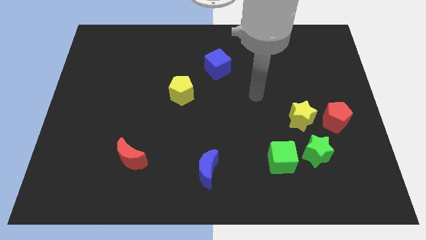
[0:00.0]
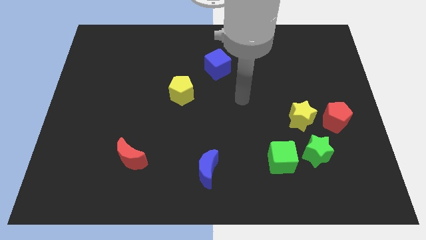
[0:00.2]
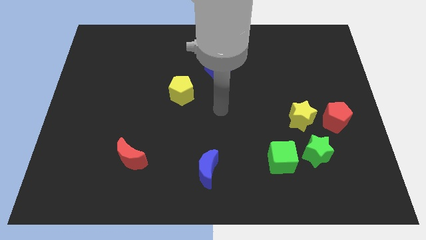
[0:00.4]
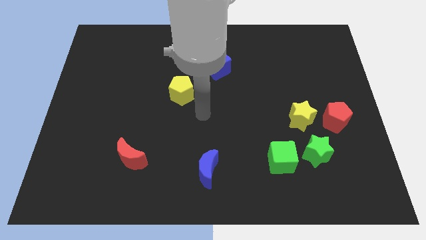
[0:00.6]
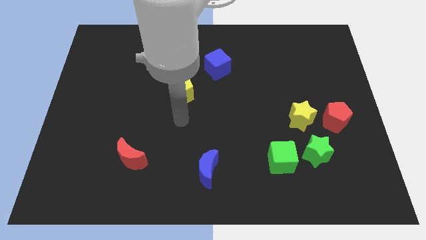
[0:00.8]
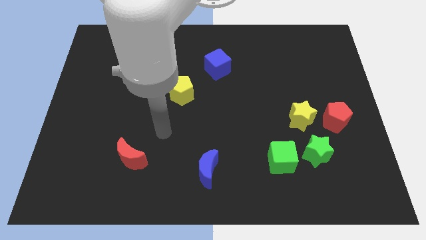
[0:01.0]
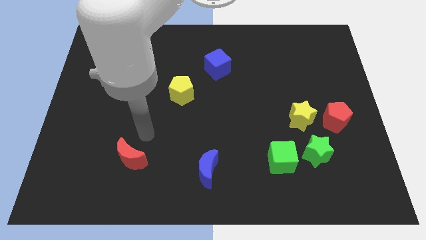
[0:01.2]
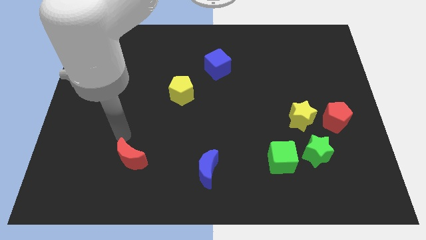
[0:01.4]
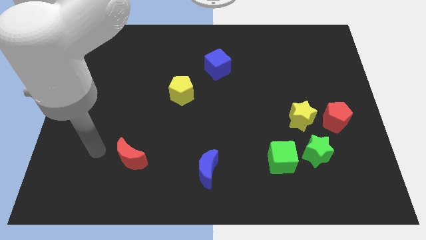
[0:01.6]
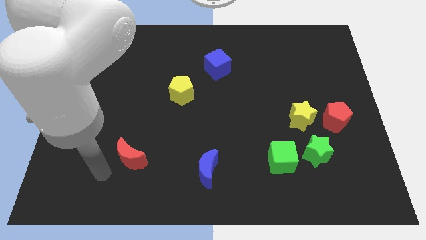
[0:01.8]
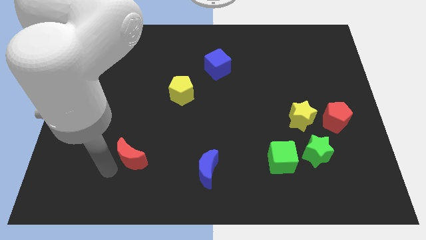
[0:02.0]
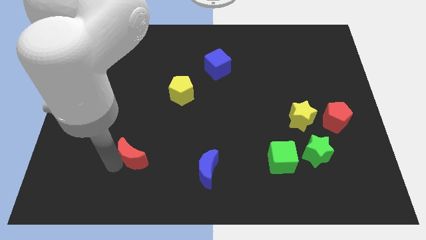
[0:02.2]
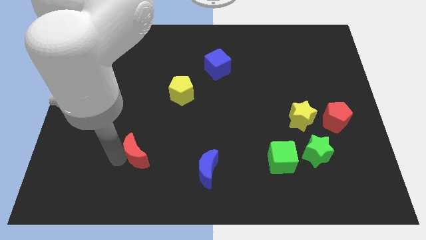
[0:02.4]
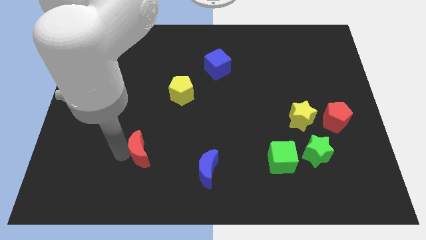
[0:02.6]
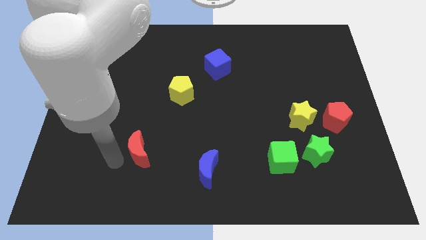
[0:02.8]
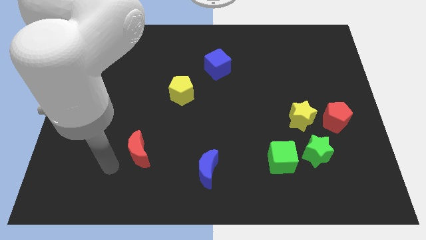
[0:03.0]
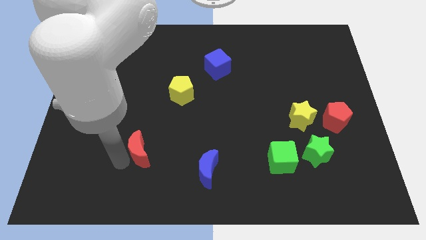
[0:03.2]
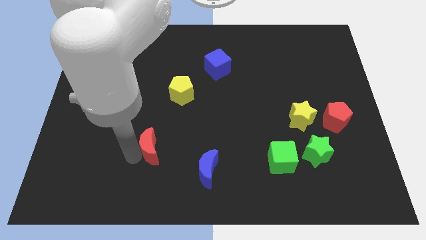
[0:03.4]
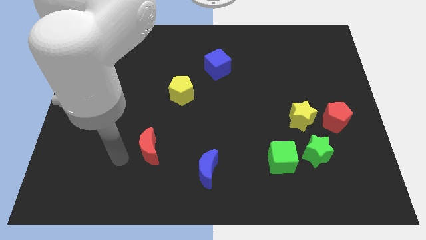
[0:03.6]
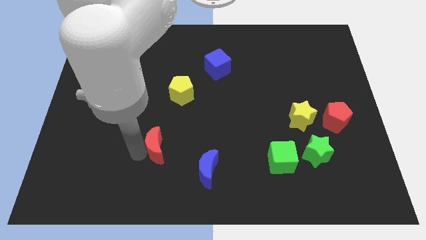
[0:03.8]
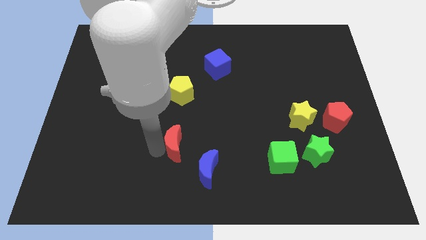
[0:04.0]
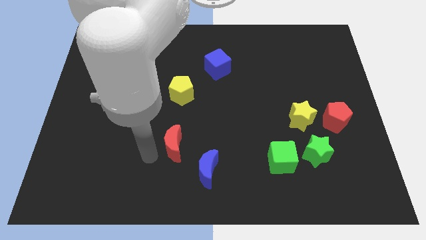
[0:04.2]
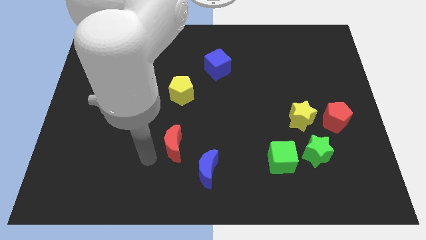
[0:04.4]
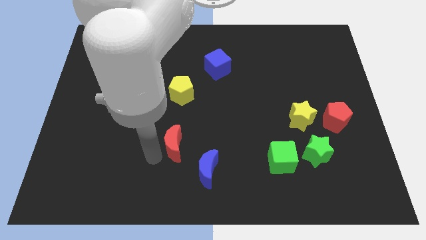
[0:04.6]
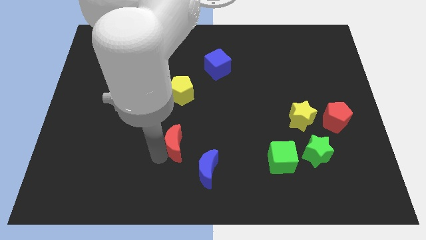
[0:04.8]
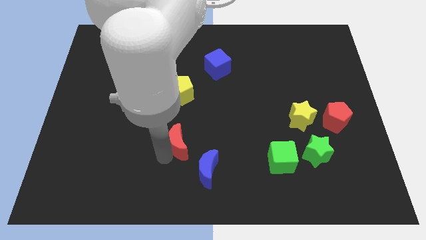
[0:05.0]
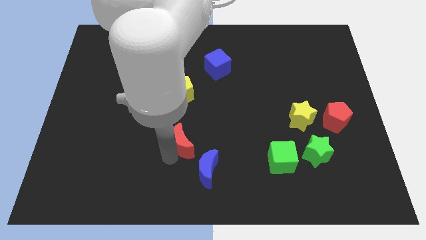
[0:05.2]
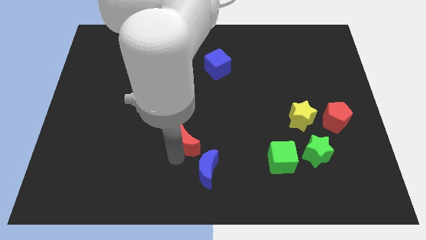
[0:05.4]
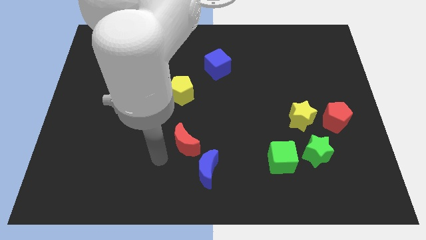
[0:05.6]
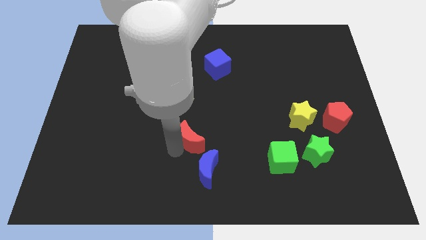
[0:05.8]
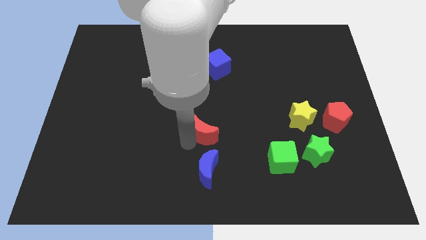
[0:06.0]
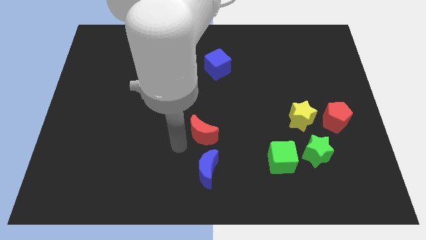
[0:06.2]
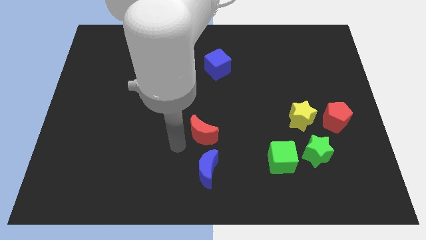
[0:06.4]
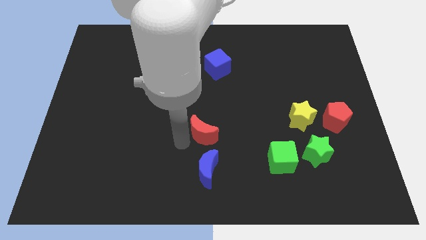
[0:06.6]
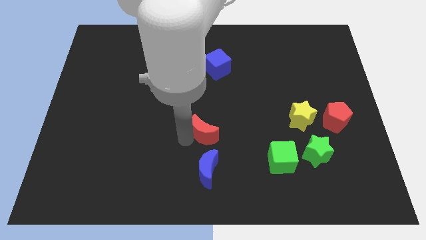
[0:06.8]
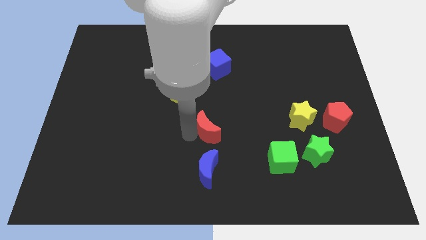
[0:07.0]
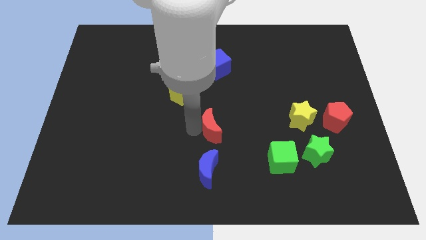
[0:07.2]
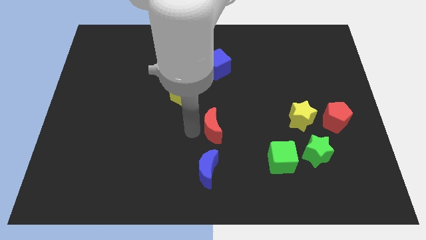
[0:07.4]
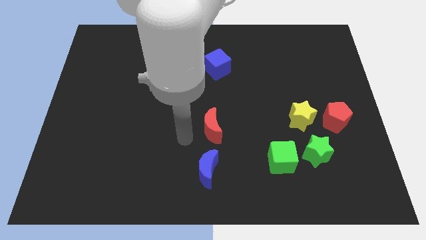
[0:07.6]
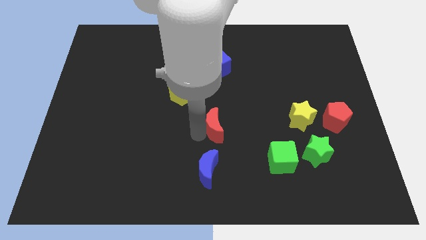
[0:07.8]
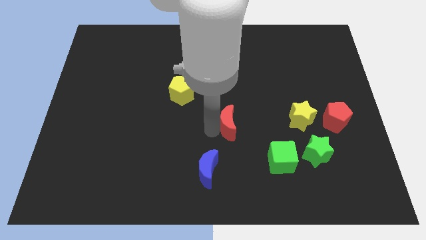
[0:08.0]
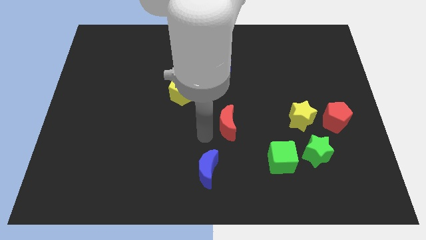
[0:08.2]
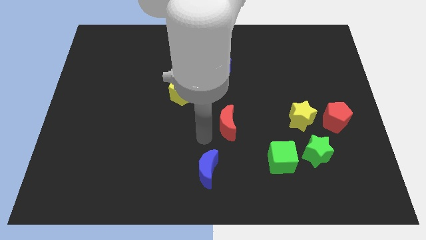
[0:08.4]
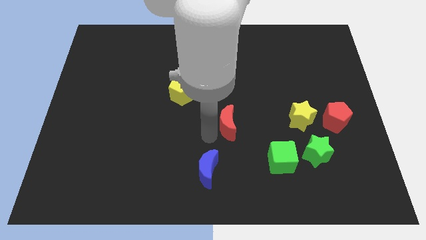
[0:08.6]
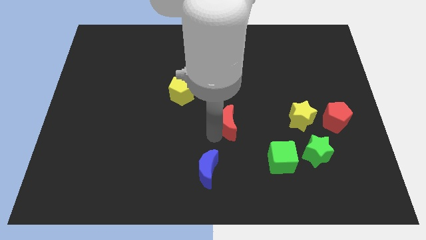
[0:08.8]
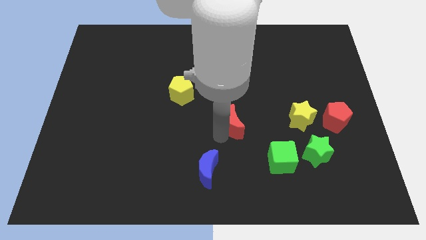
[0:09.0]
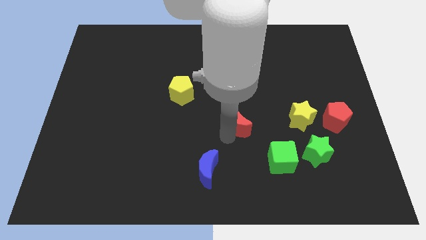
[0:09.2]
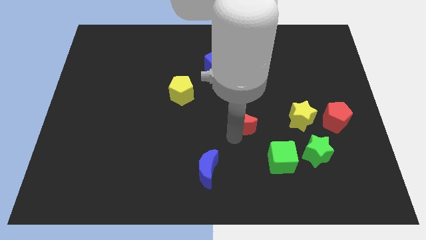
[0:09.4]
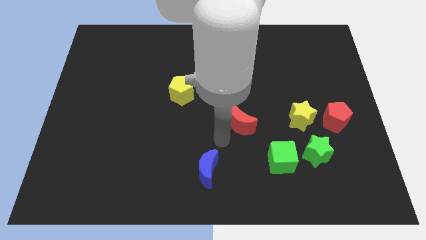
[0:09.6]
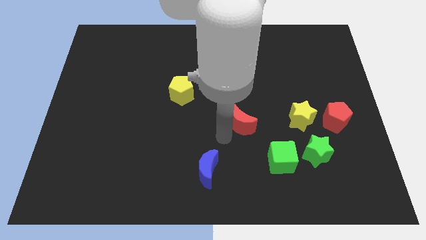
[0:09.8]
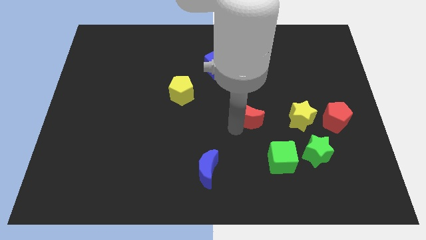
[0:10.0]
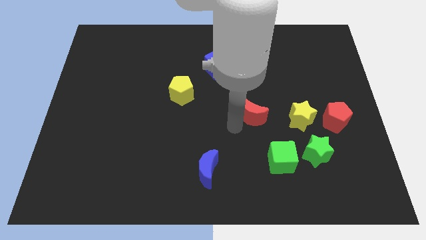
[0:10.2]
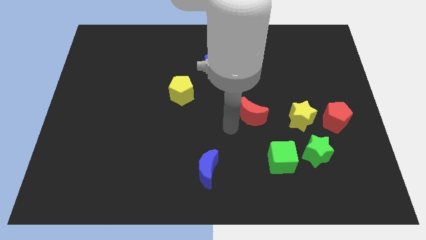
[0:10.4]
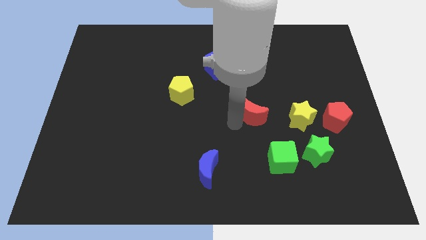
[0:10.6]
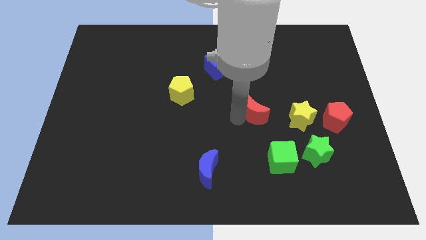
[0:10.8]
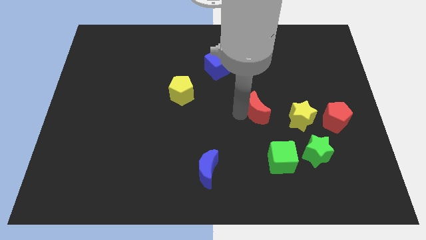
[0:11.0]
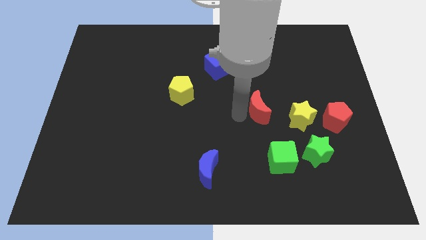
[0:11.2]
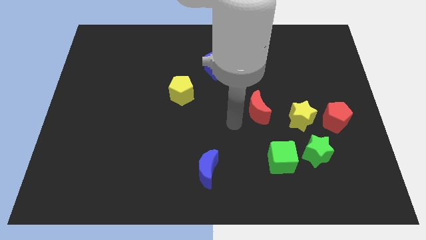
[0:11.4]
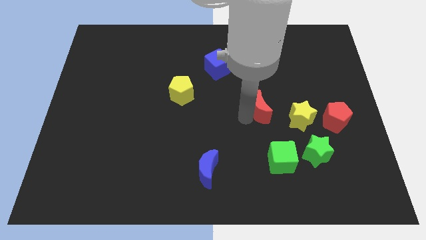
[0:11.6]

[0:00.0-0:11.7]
push the red moon to the top left of the yellow star

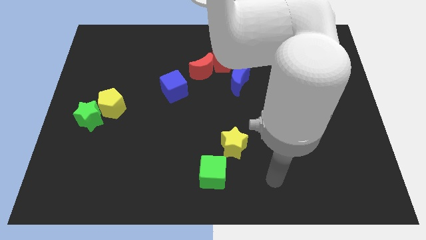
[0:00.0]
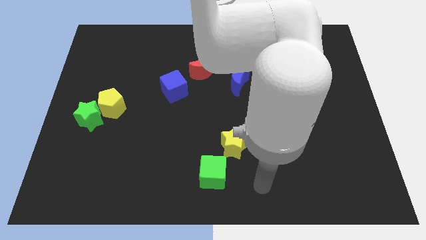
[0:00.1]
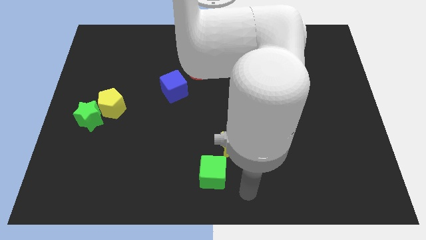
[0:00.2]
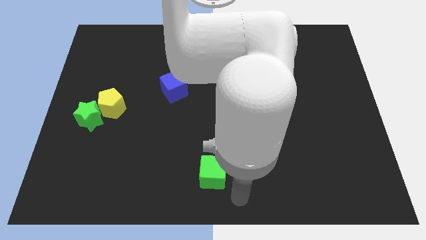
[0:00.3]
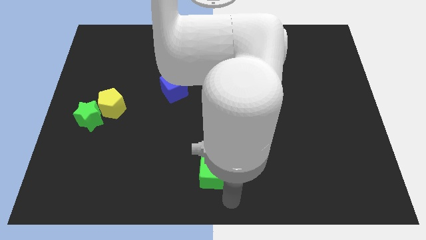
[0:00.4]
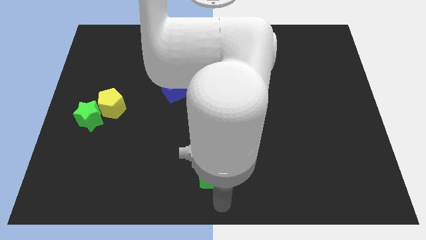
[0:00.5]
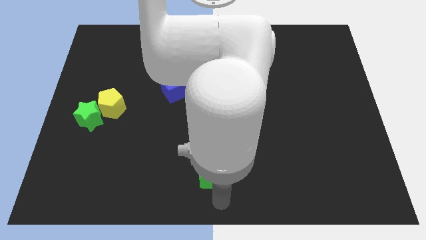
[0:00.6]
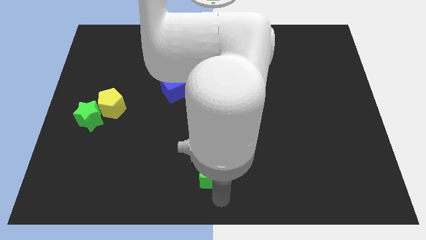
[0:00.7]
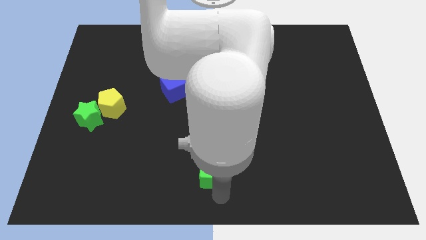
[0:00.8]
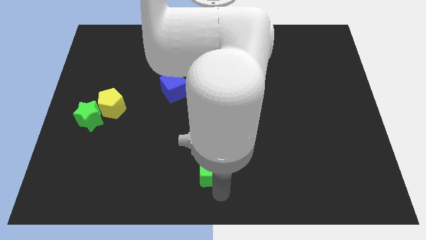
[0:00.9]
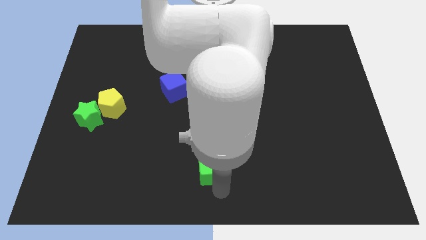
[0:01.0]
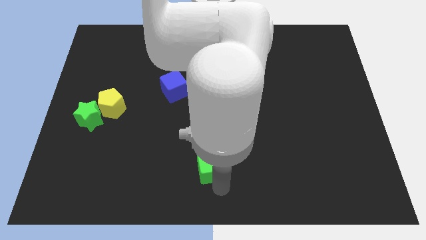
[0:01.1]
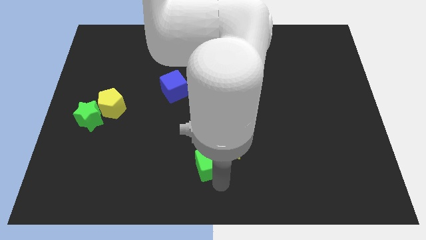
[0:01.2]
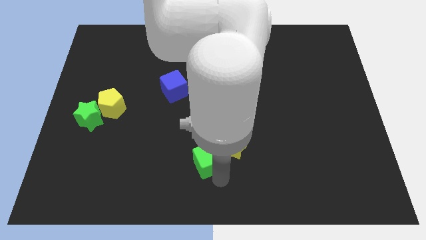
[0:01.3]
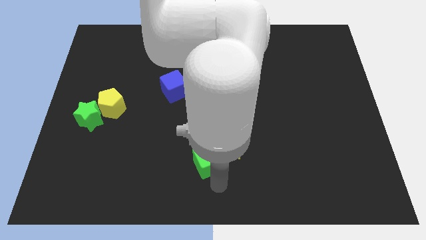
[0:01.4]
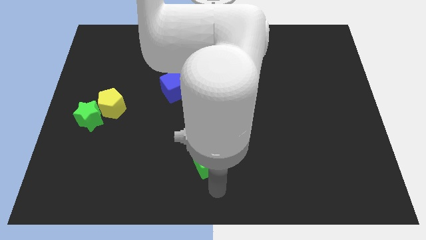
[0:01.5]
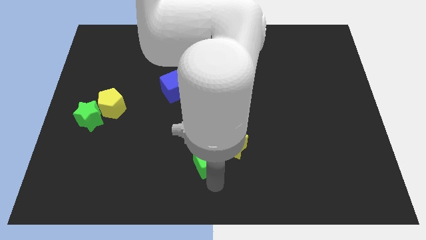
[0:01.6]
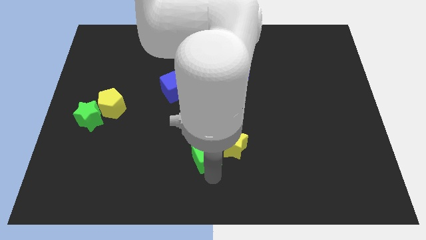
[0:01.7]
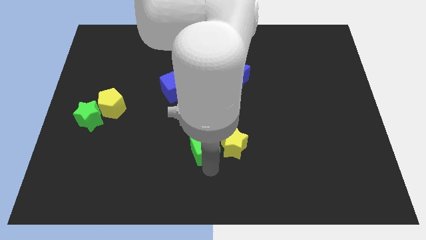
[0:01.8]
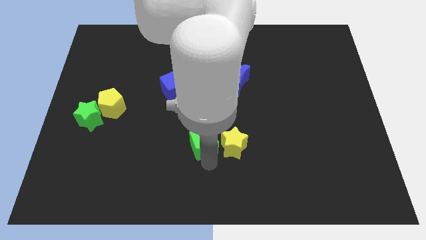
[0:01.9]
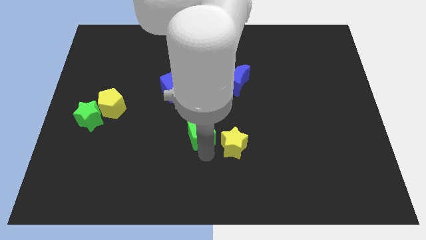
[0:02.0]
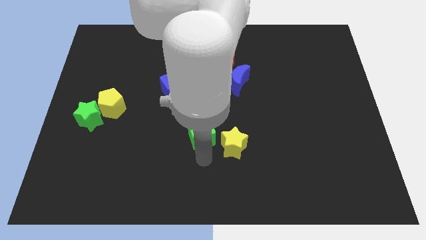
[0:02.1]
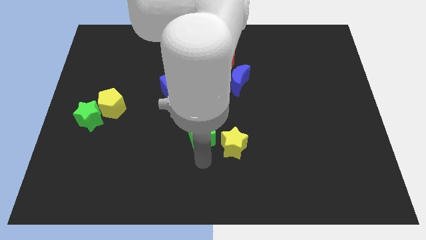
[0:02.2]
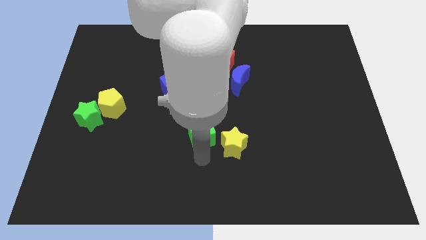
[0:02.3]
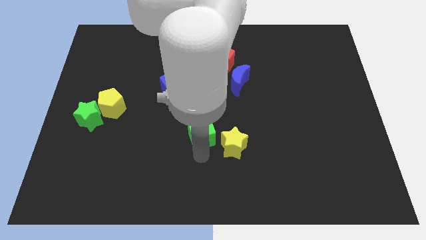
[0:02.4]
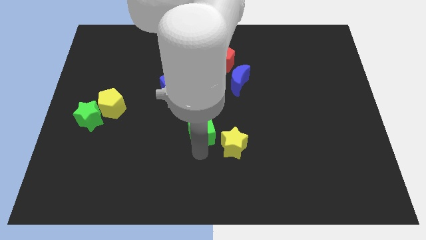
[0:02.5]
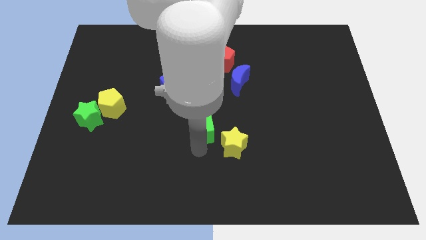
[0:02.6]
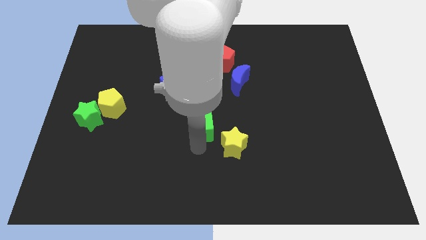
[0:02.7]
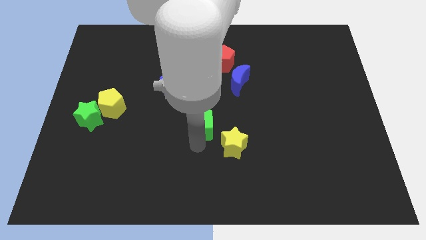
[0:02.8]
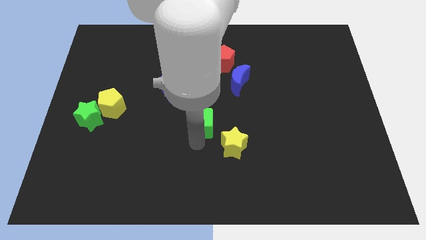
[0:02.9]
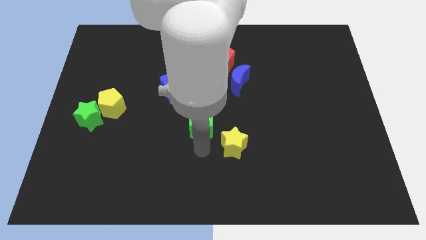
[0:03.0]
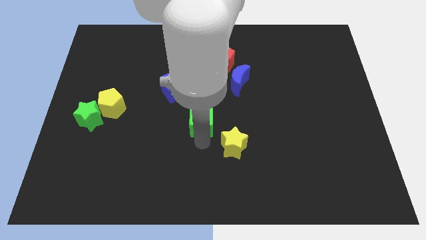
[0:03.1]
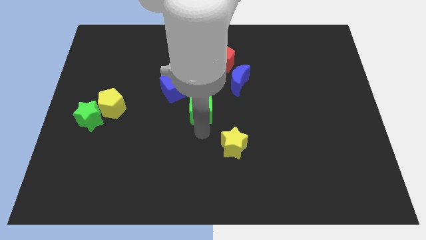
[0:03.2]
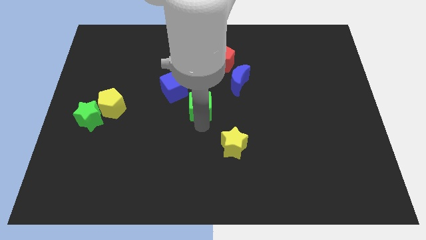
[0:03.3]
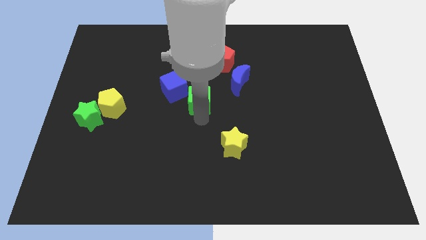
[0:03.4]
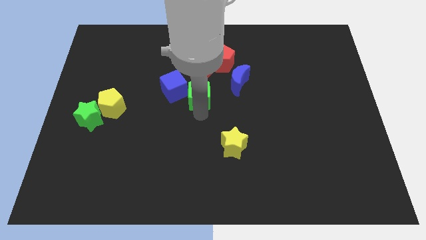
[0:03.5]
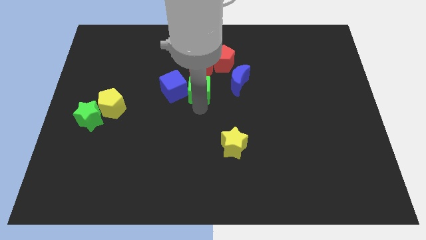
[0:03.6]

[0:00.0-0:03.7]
put the green cube to the bottom left of the red pentagon
